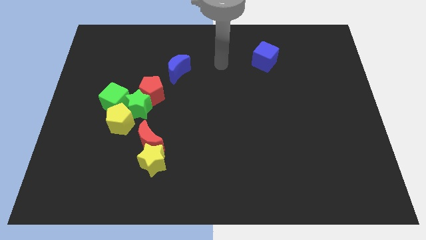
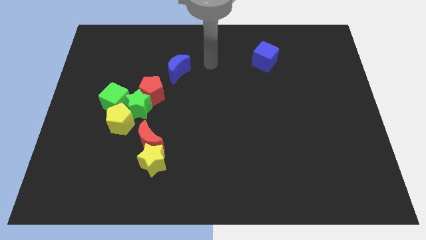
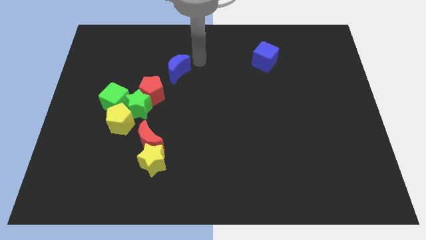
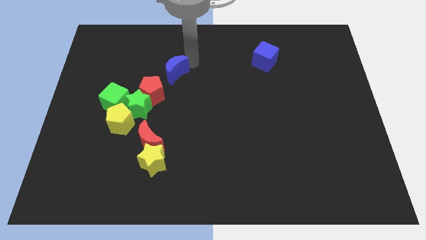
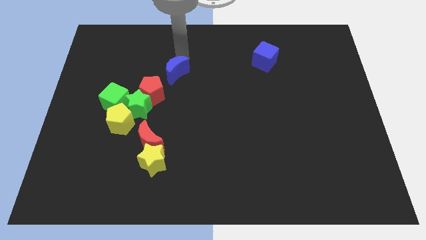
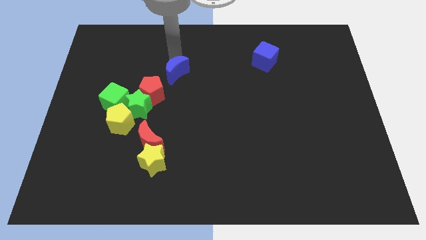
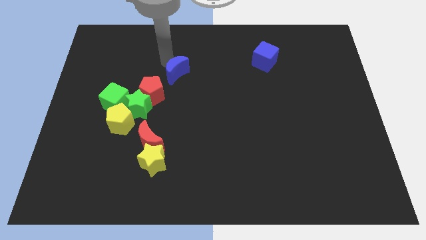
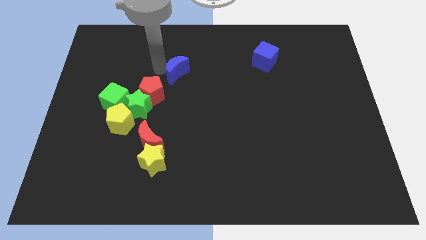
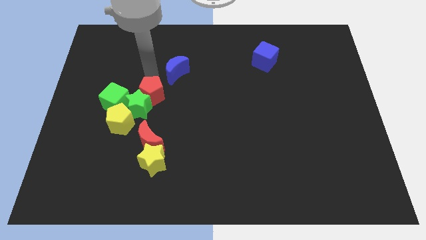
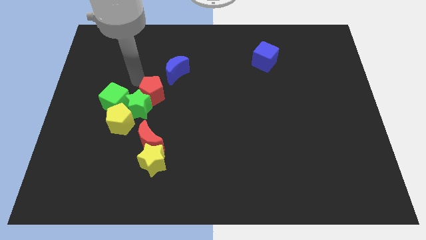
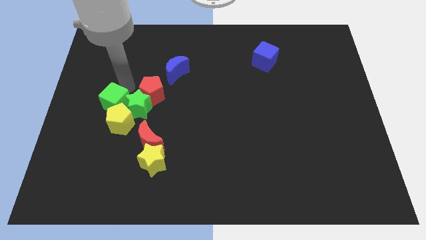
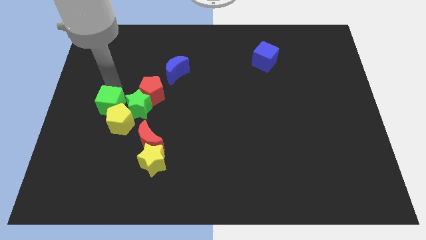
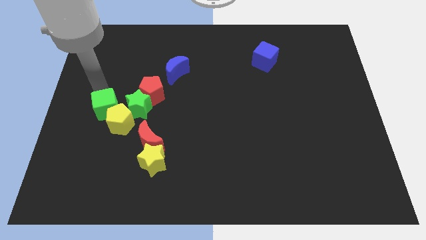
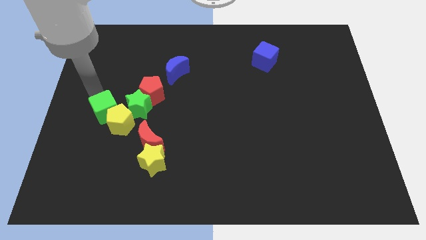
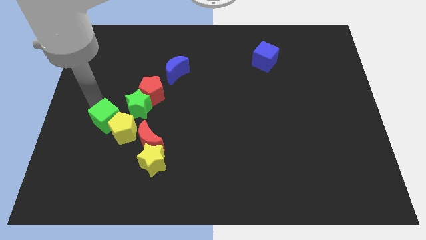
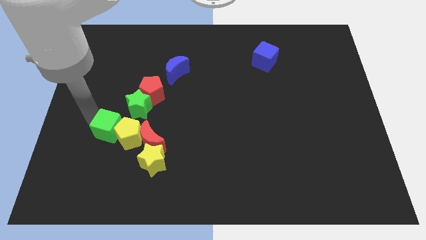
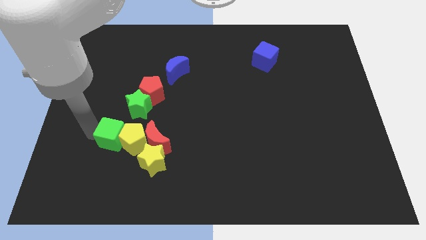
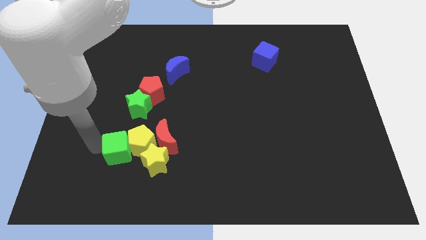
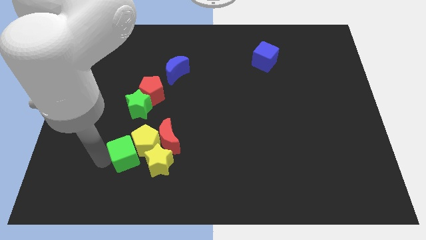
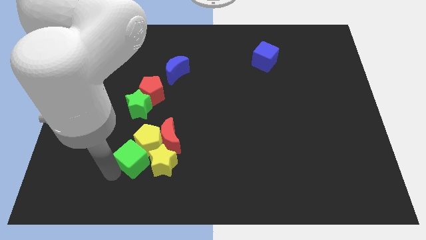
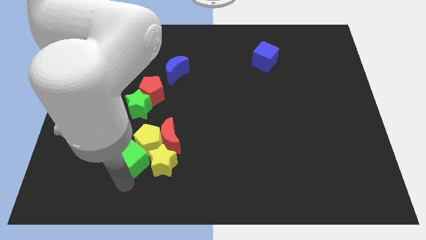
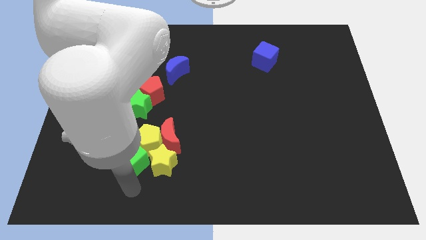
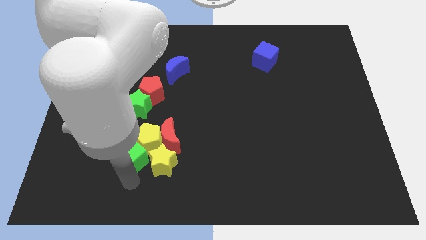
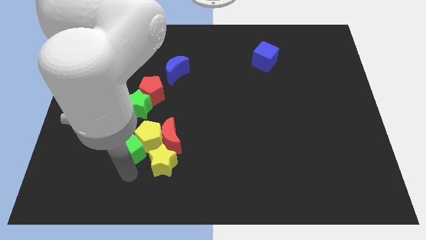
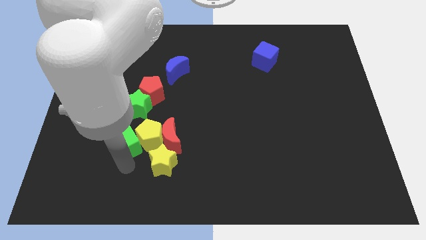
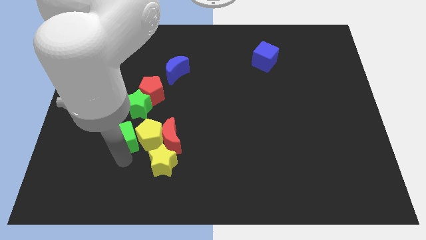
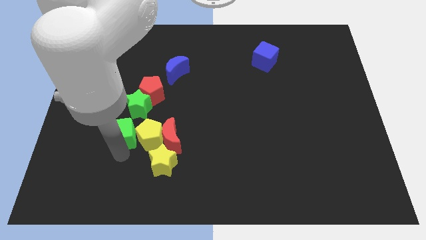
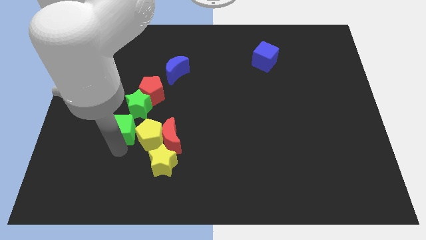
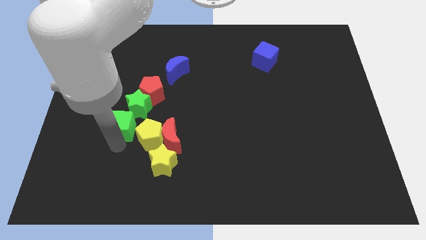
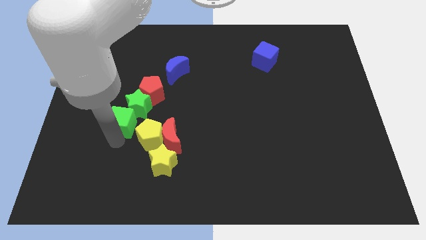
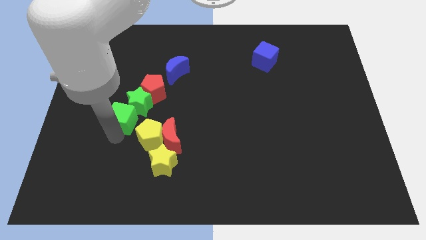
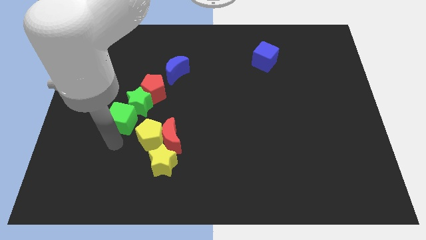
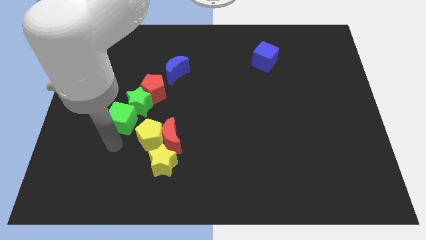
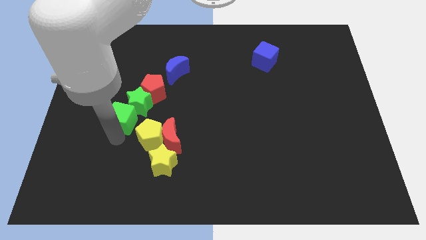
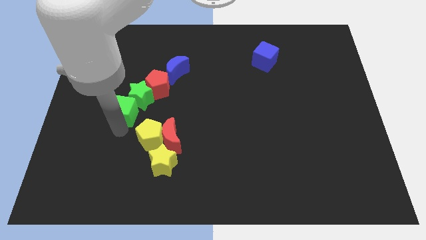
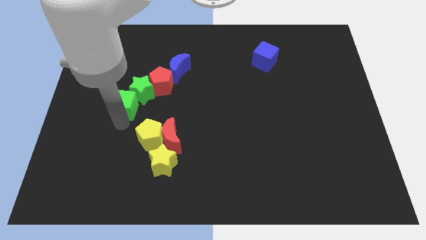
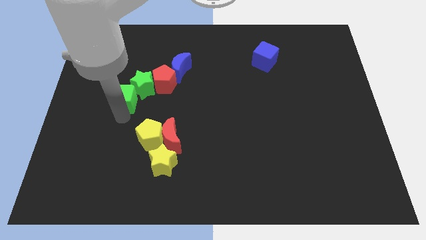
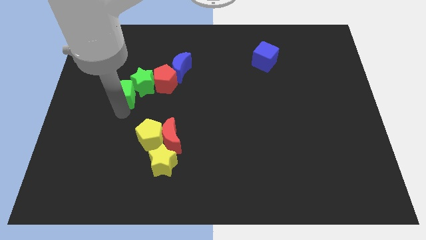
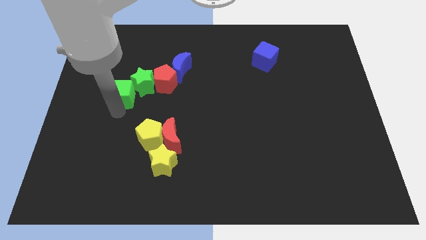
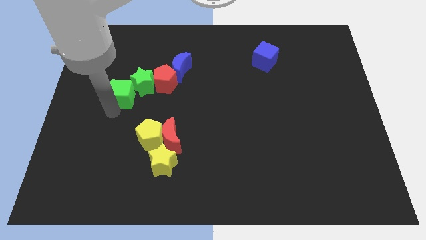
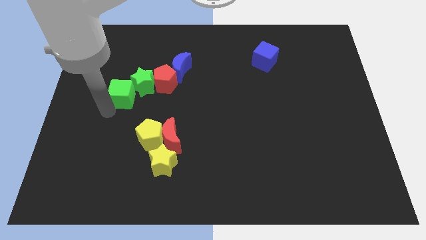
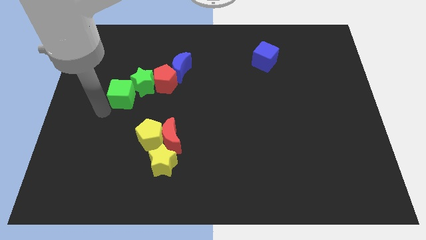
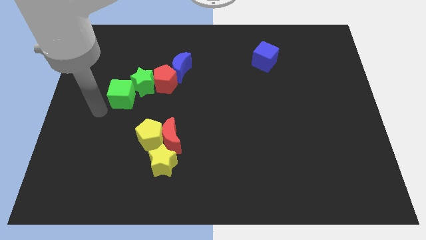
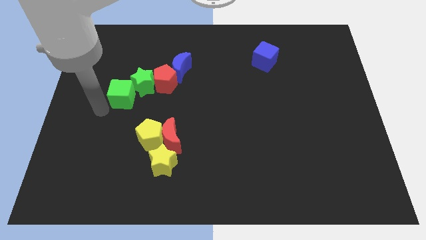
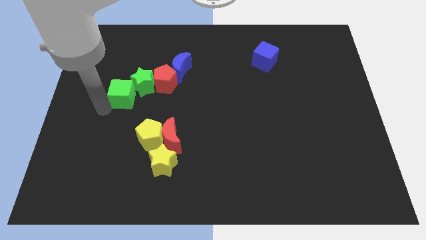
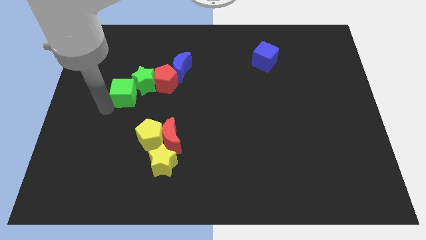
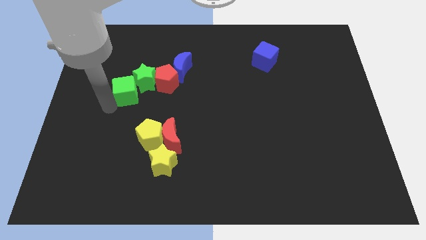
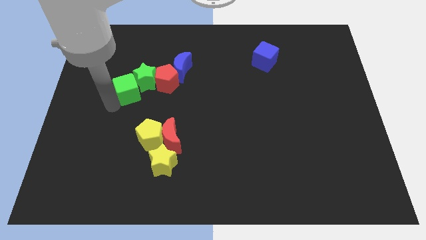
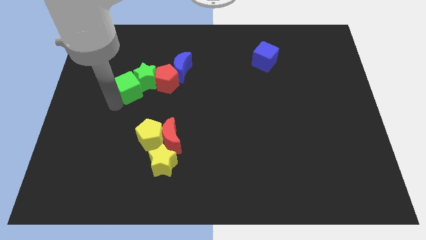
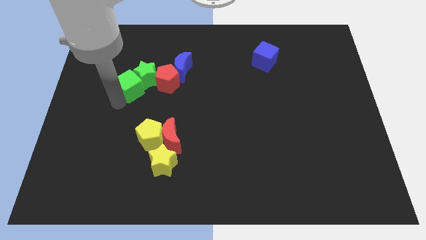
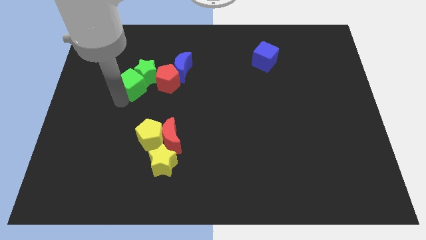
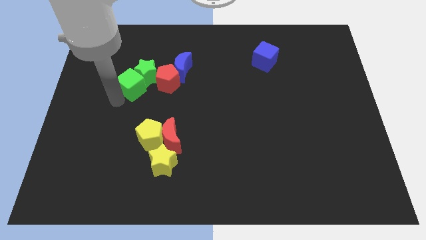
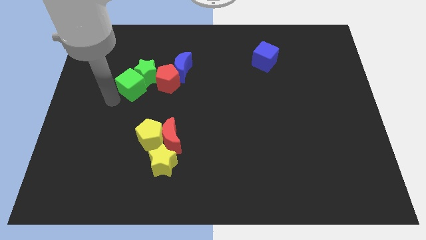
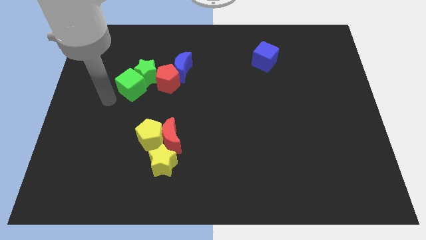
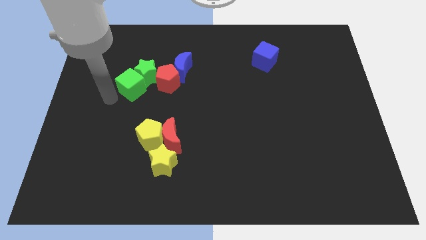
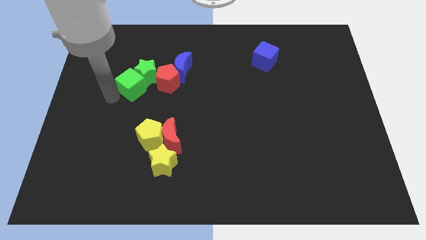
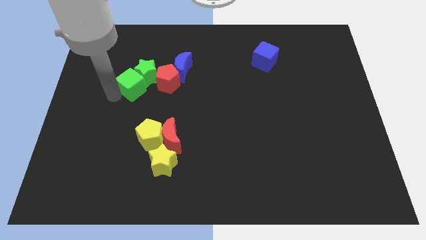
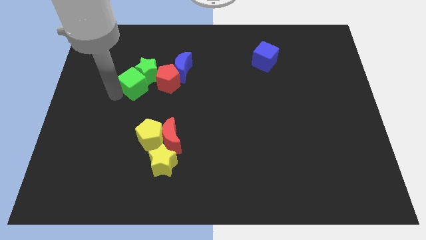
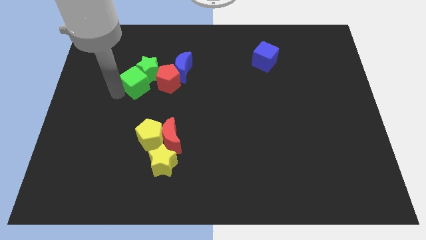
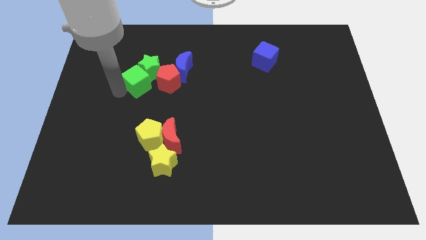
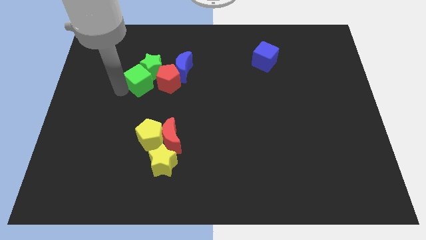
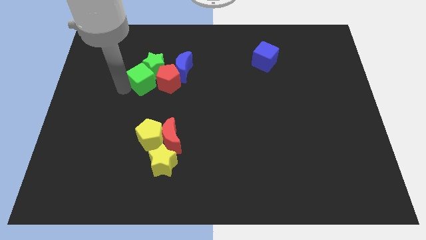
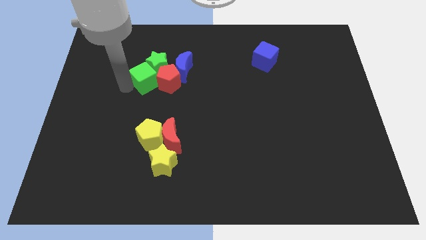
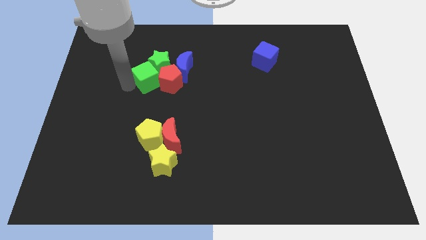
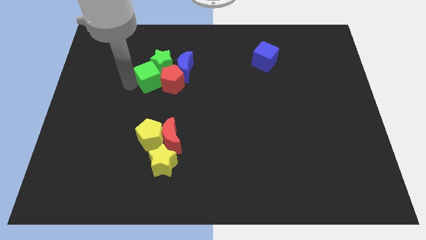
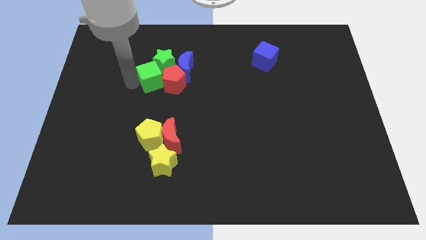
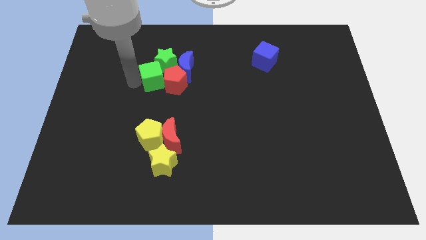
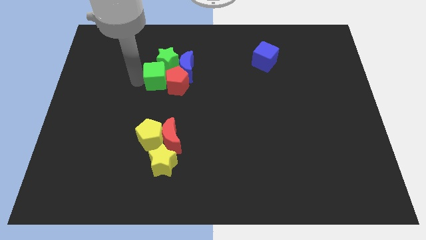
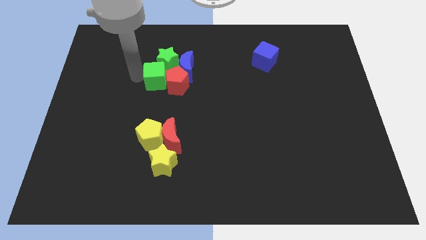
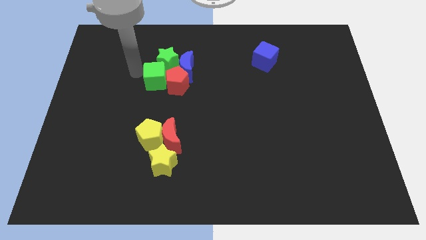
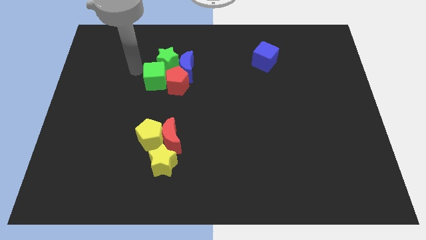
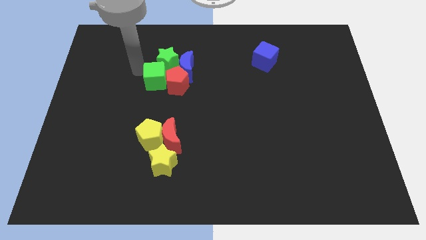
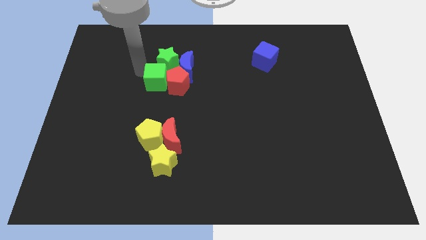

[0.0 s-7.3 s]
slide the green cube a little bit to the right

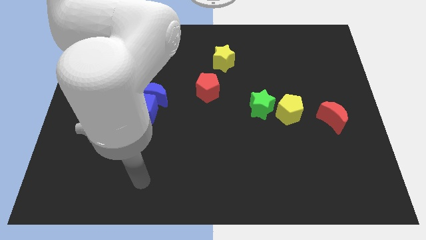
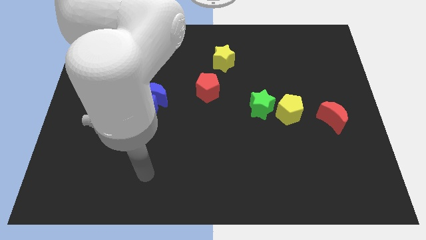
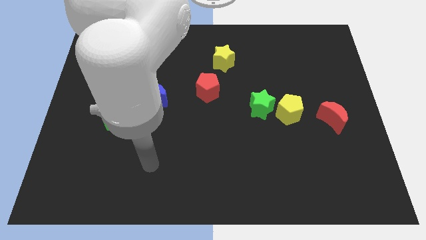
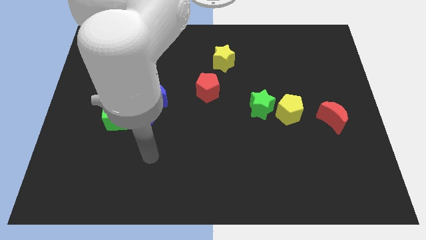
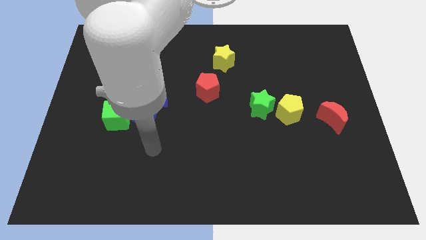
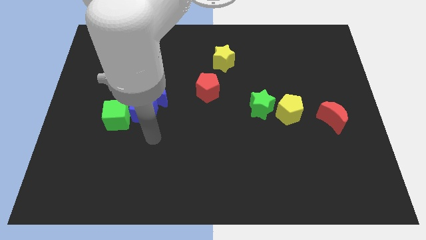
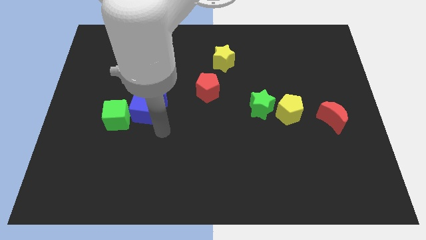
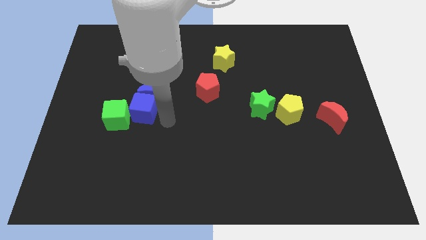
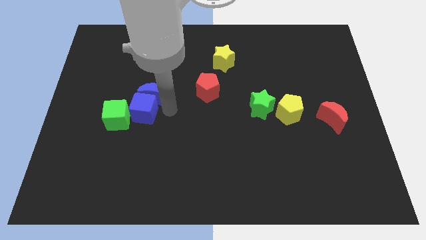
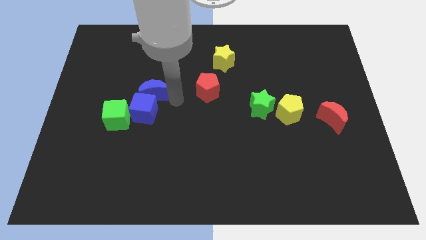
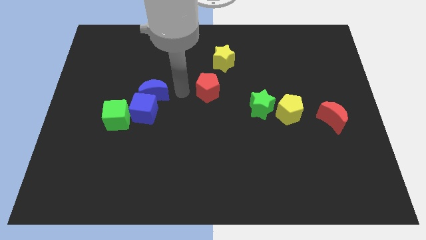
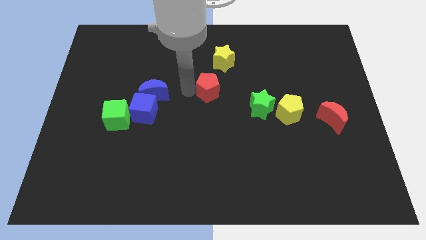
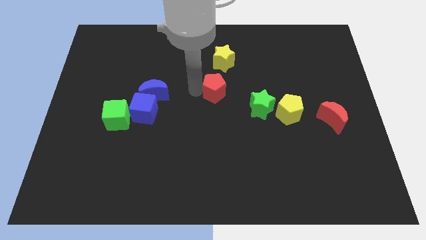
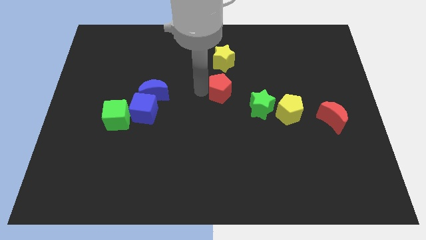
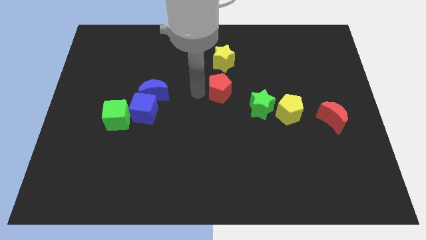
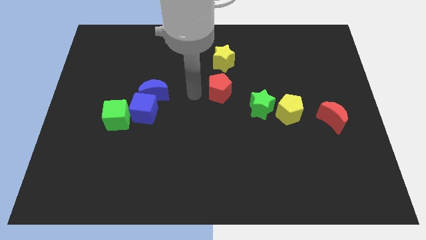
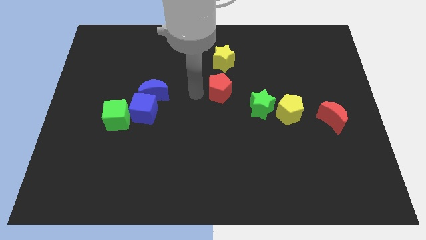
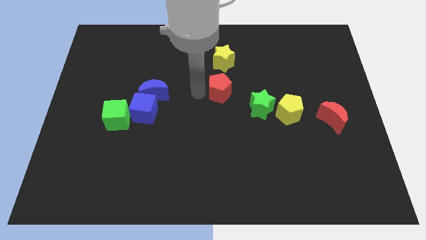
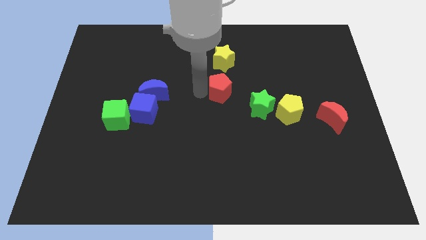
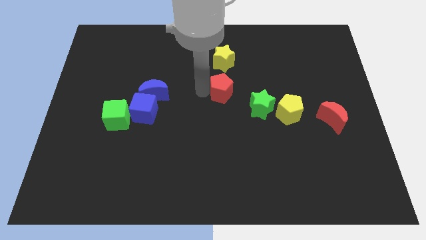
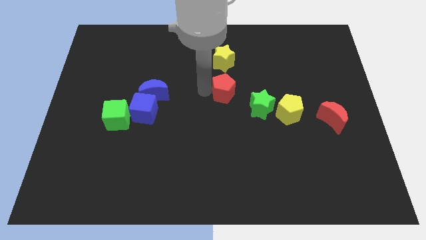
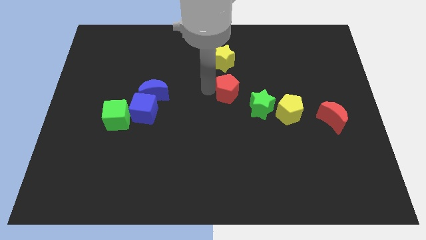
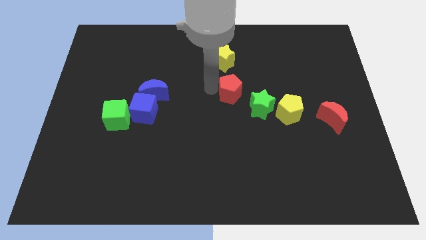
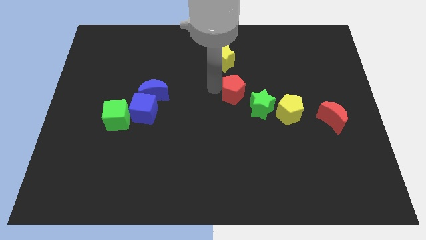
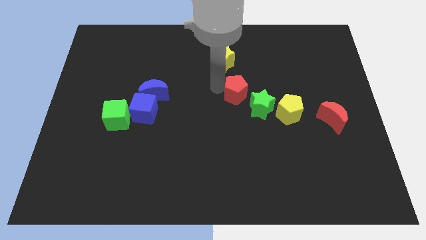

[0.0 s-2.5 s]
slide the red pentagon a little right
